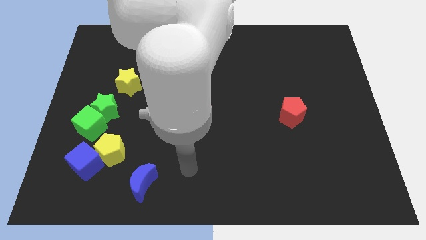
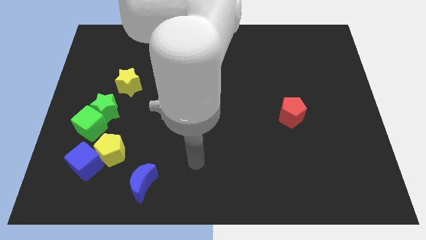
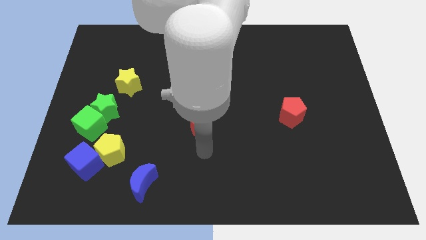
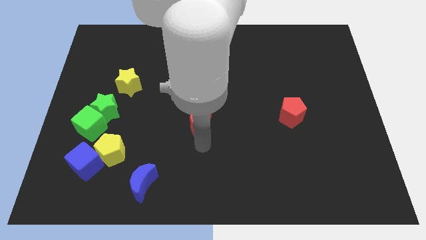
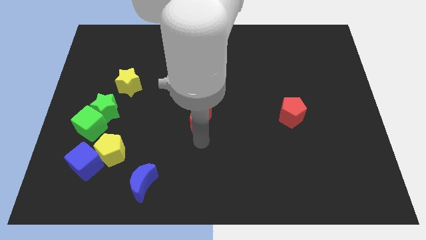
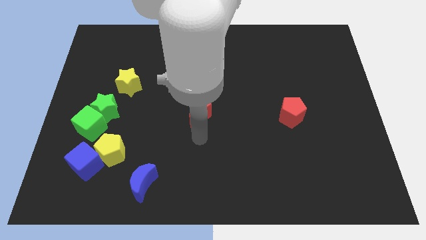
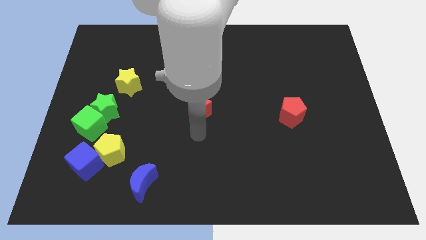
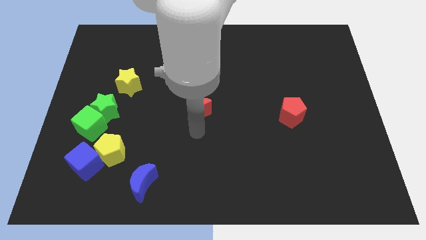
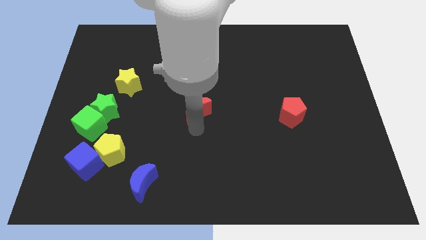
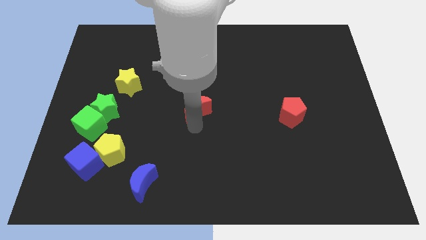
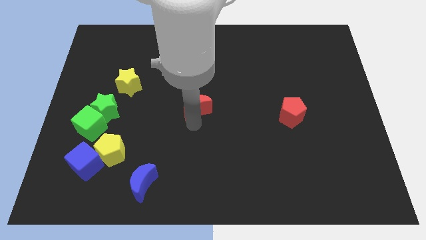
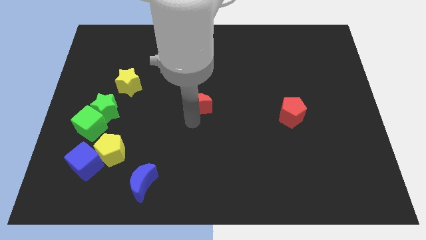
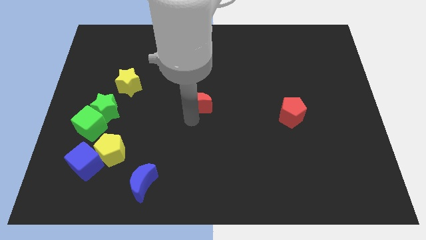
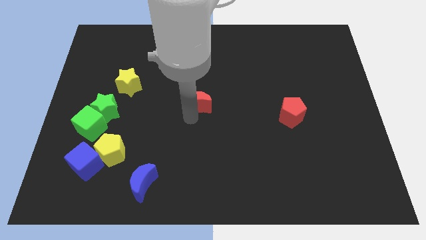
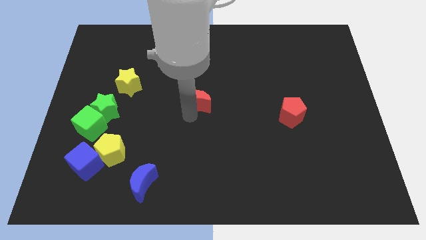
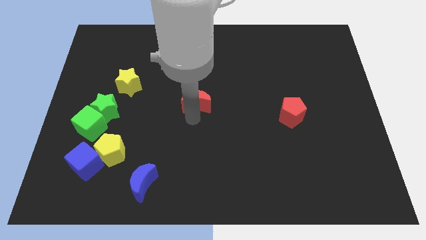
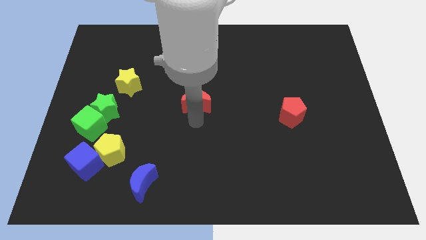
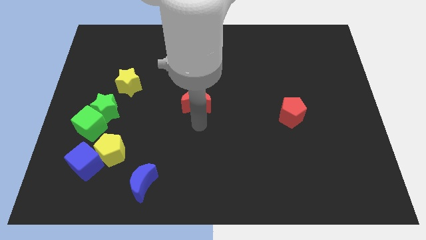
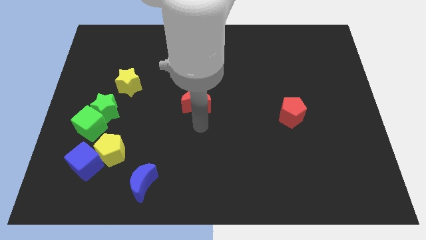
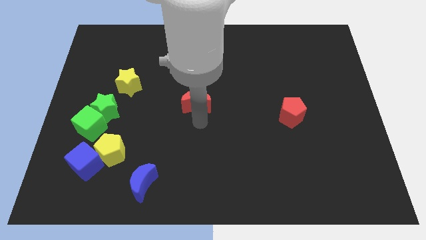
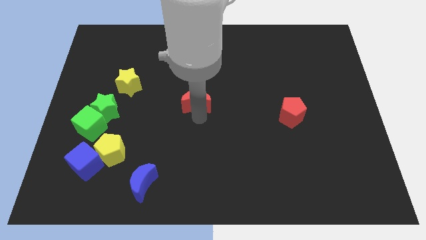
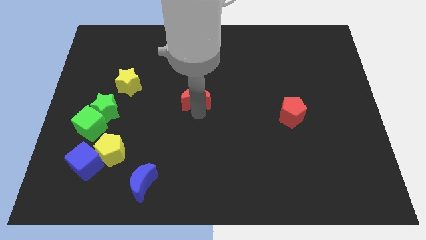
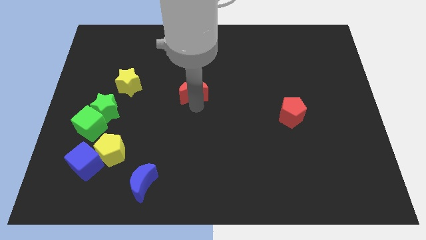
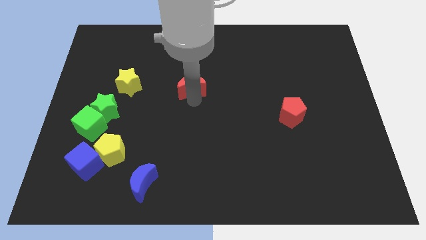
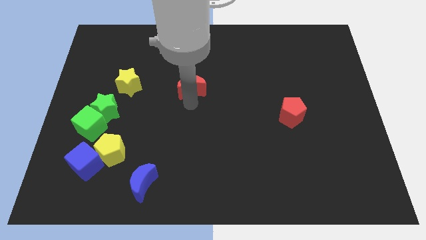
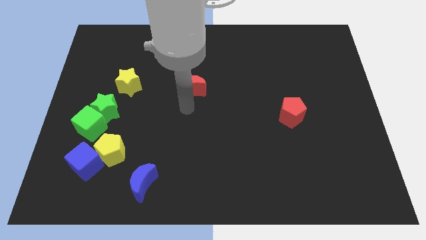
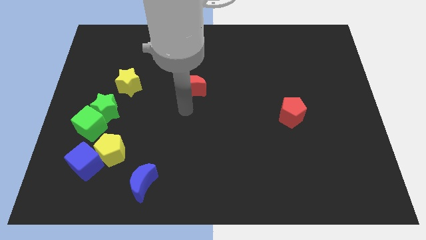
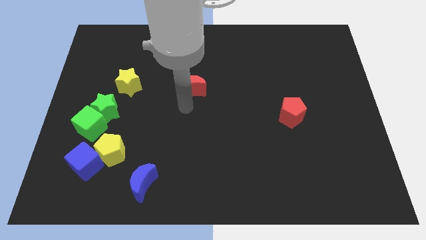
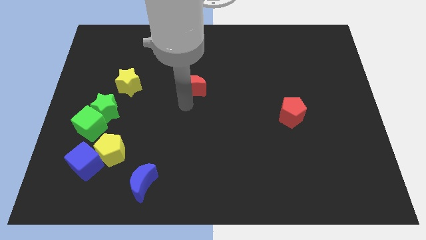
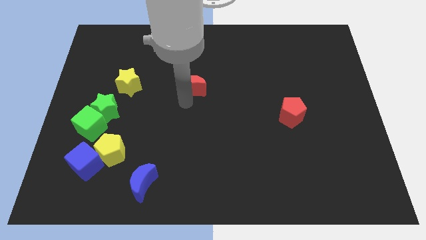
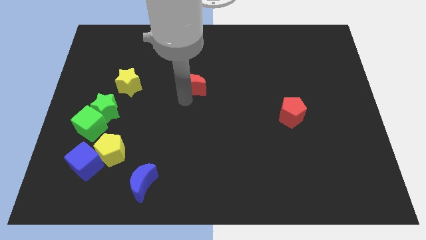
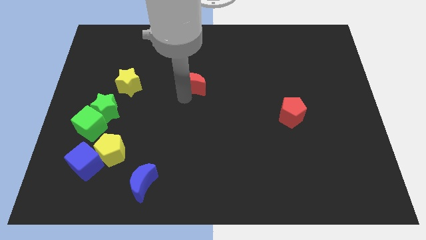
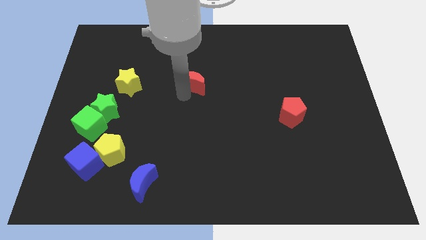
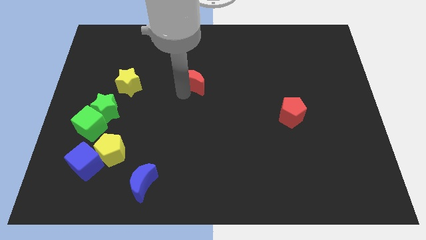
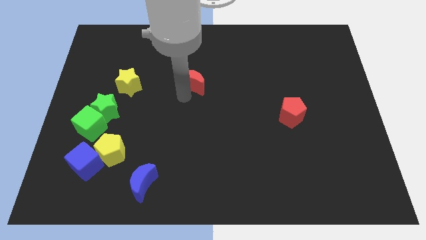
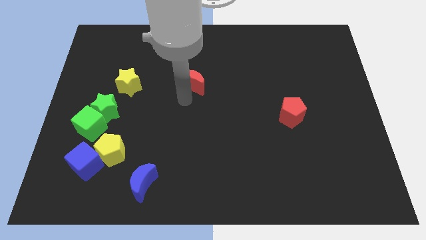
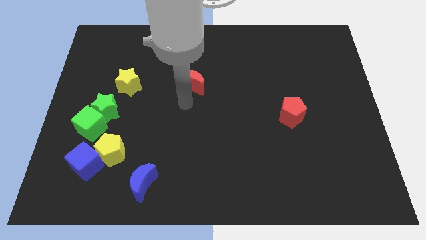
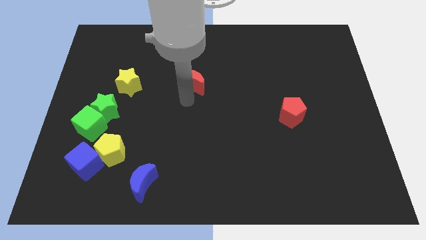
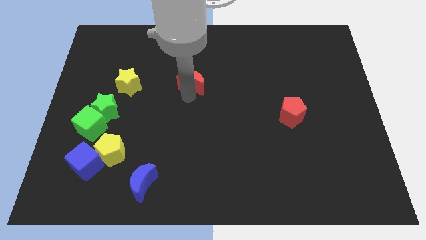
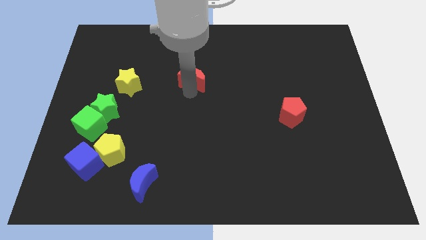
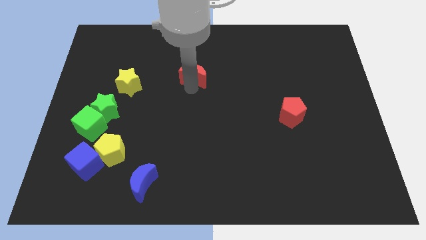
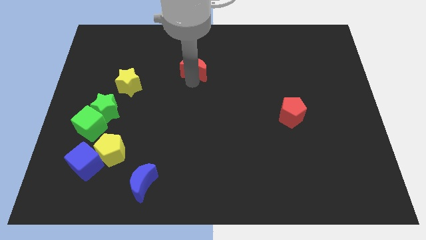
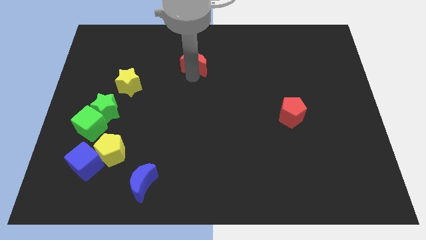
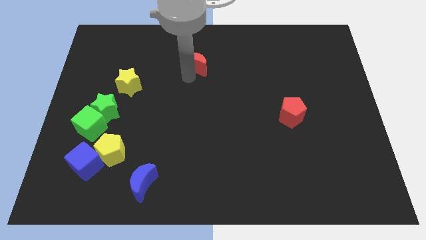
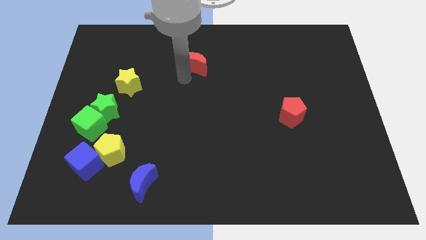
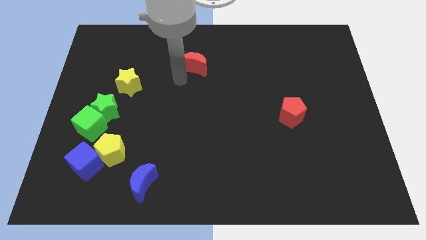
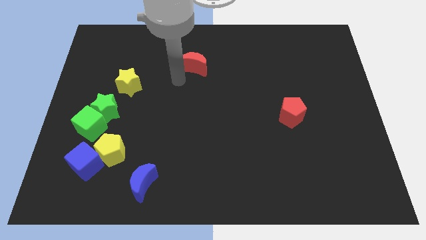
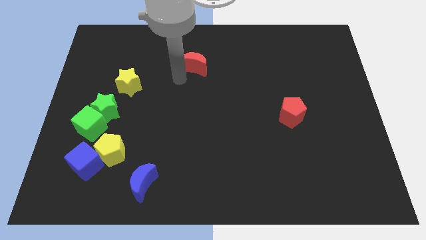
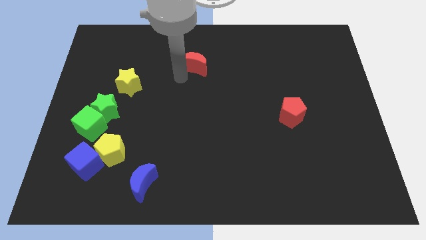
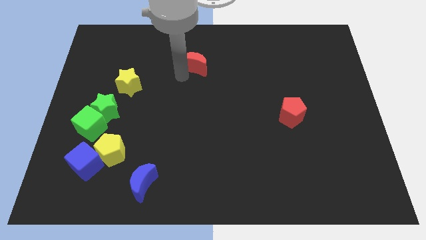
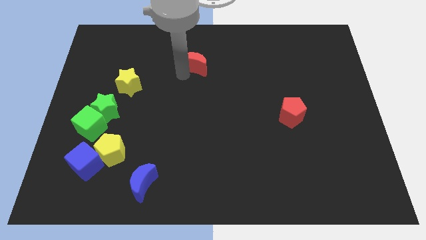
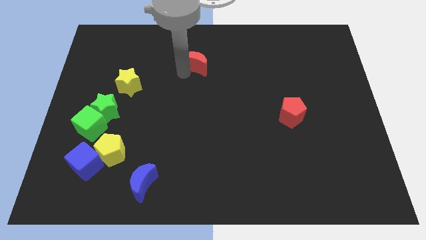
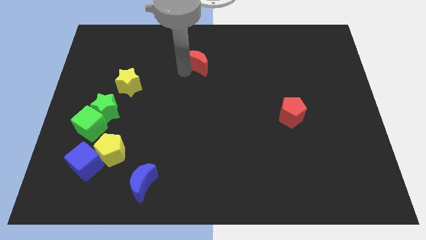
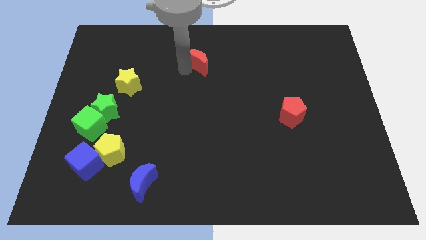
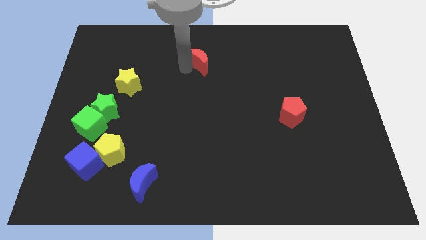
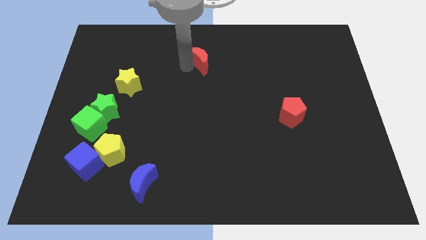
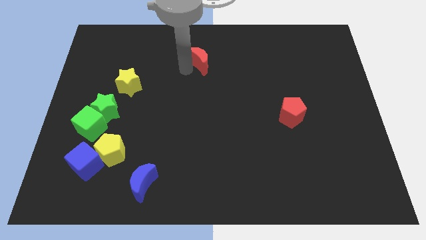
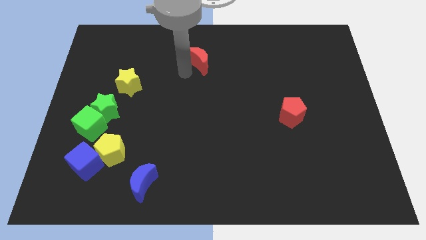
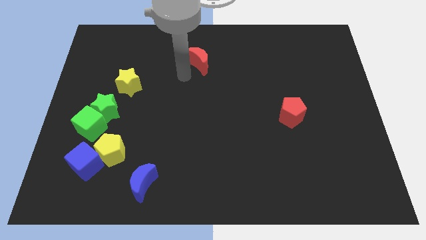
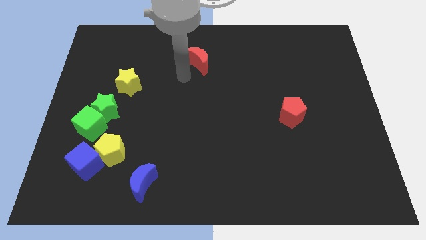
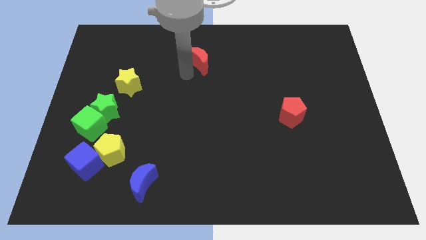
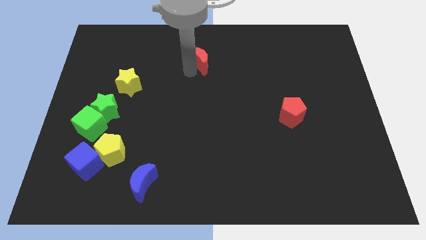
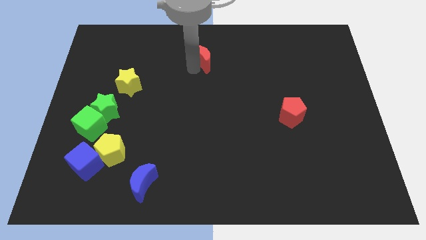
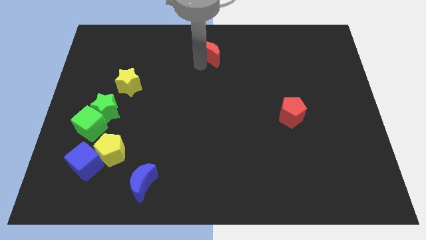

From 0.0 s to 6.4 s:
slide the red moon to the top
